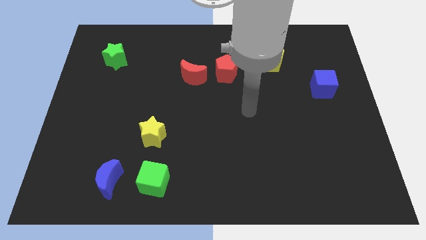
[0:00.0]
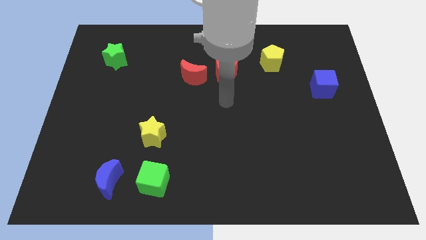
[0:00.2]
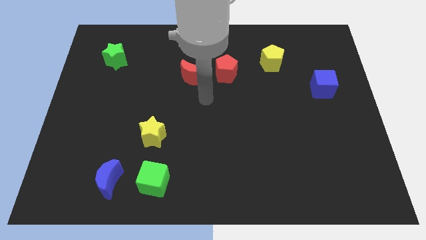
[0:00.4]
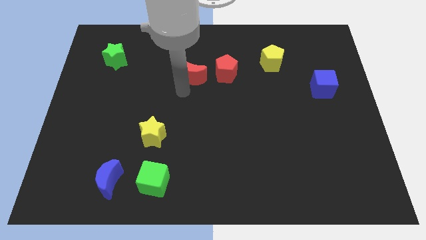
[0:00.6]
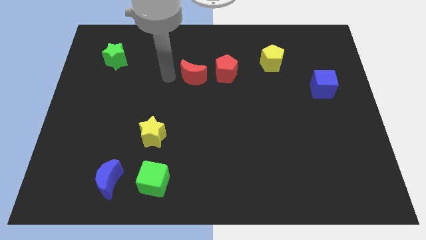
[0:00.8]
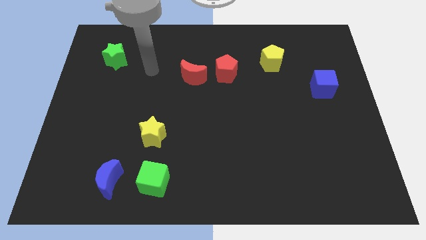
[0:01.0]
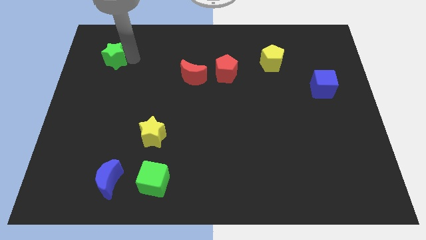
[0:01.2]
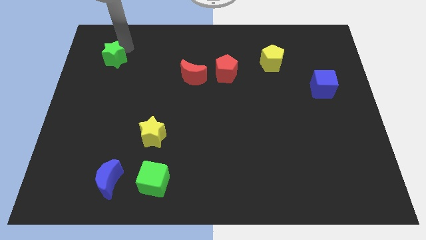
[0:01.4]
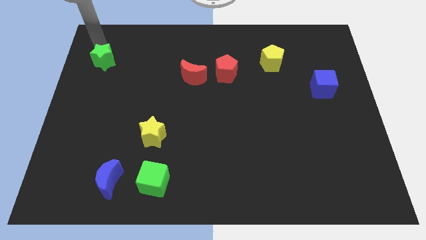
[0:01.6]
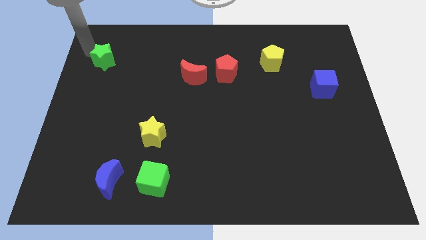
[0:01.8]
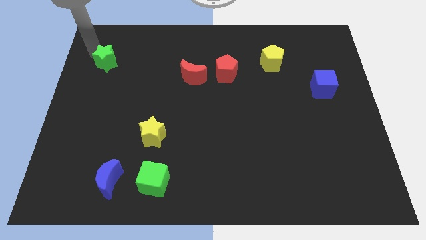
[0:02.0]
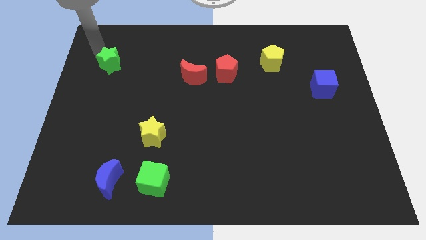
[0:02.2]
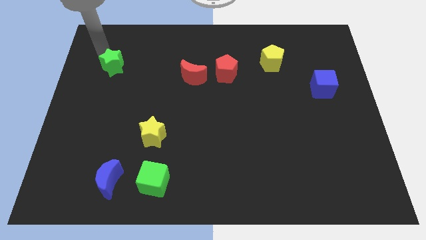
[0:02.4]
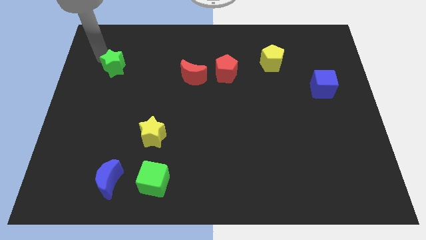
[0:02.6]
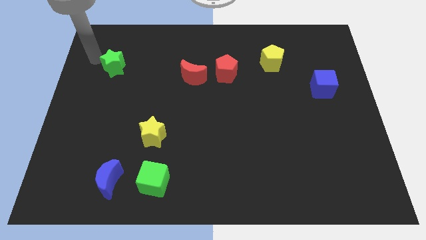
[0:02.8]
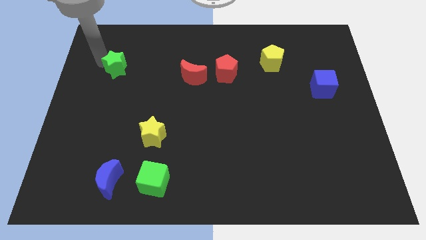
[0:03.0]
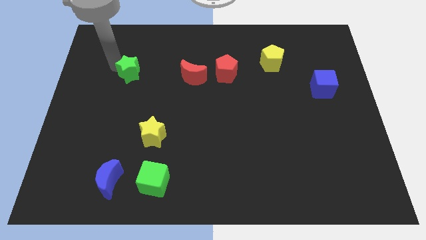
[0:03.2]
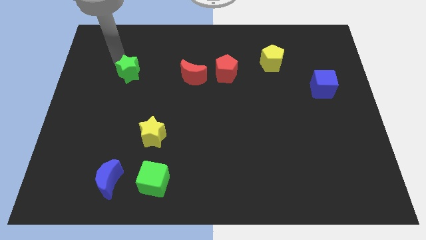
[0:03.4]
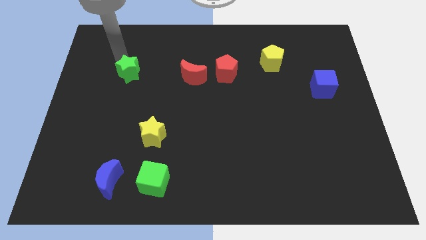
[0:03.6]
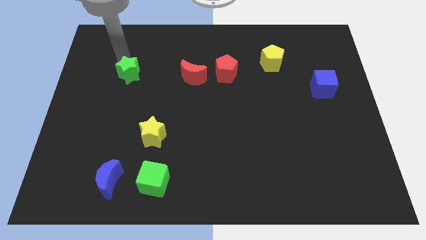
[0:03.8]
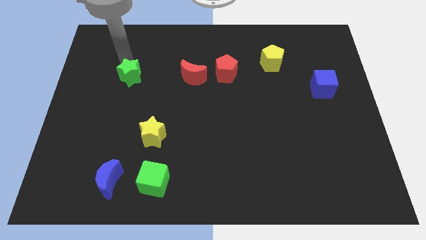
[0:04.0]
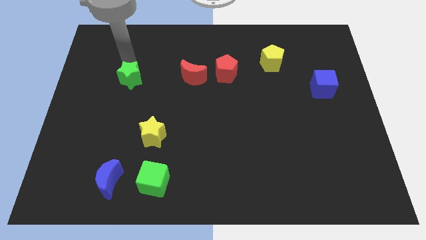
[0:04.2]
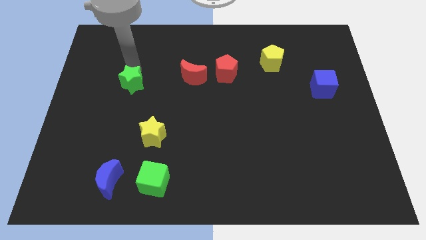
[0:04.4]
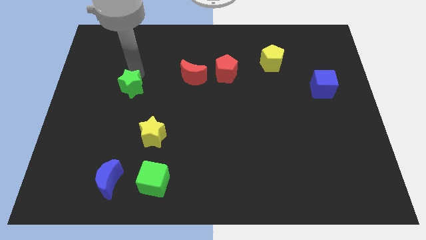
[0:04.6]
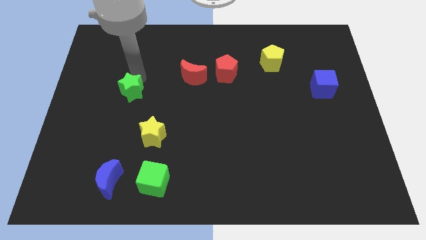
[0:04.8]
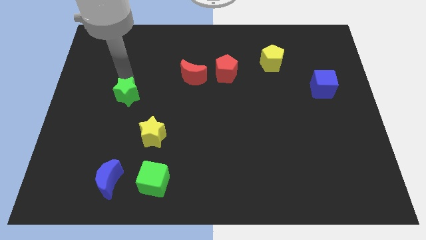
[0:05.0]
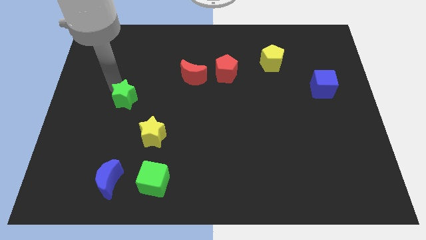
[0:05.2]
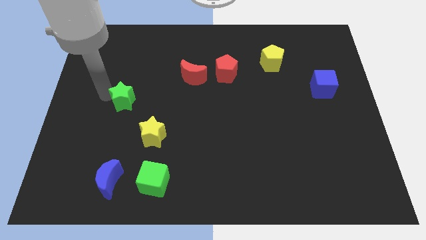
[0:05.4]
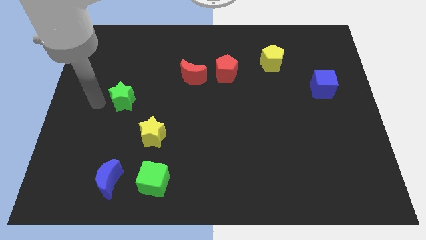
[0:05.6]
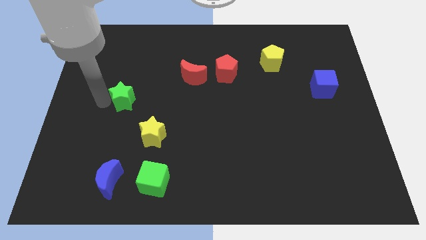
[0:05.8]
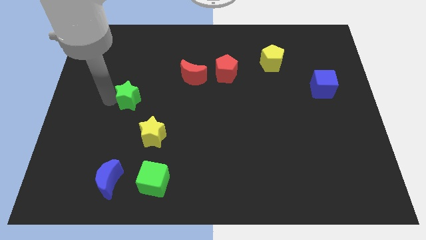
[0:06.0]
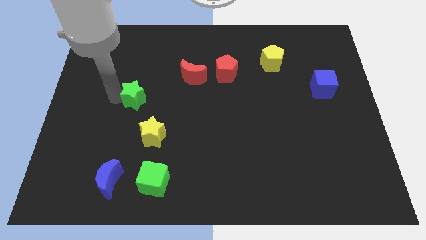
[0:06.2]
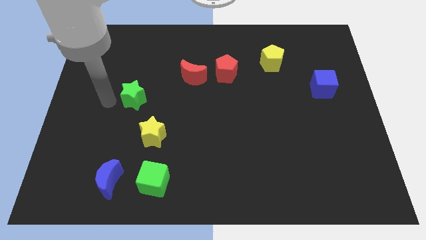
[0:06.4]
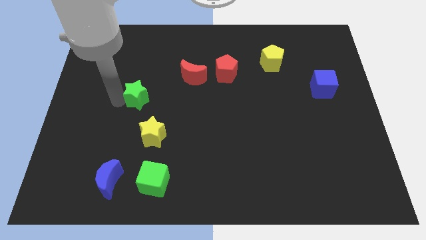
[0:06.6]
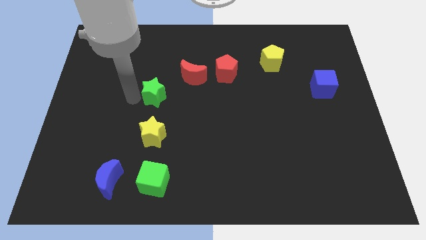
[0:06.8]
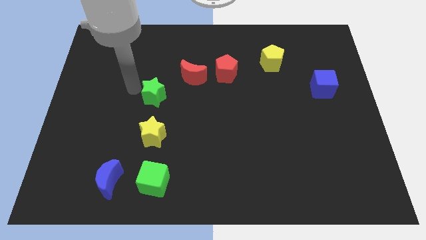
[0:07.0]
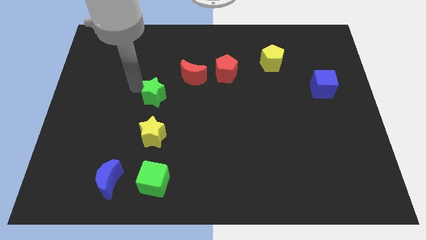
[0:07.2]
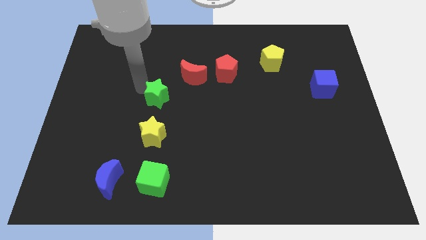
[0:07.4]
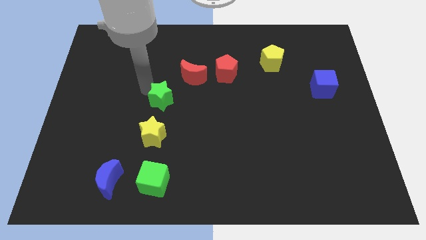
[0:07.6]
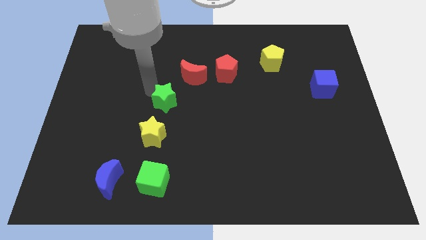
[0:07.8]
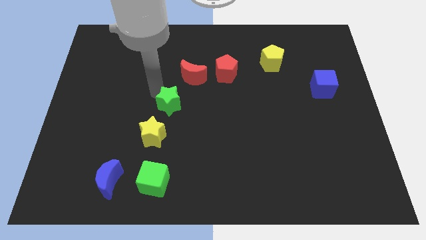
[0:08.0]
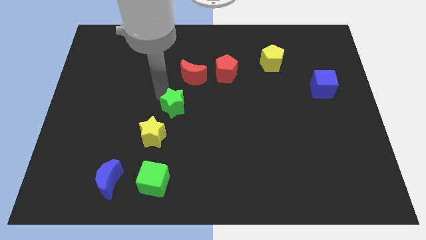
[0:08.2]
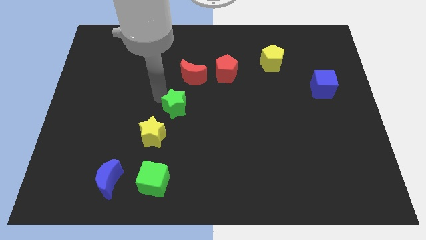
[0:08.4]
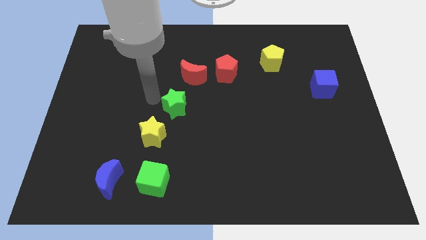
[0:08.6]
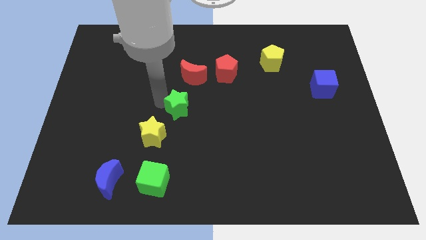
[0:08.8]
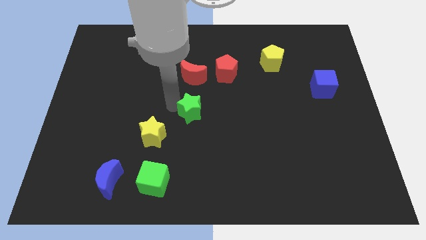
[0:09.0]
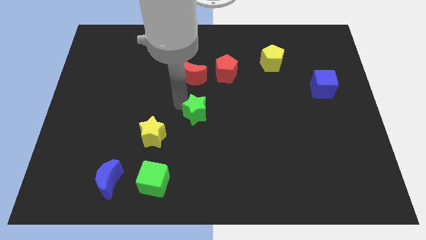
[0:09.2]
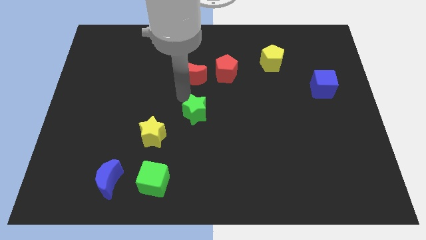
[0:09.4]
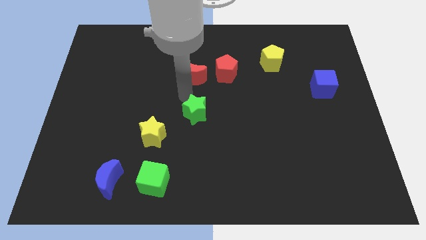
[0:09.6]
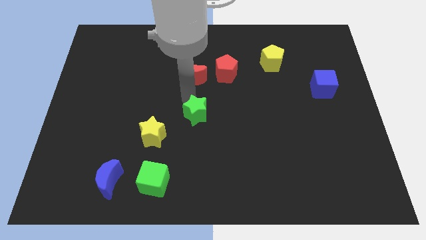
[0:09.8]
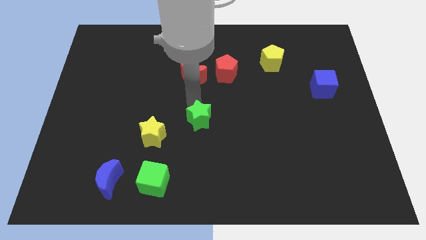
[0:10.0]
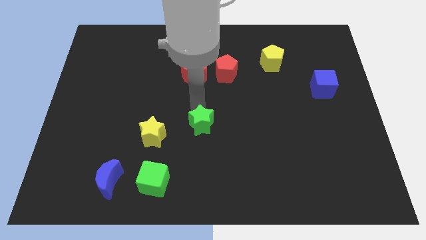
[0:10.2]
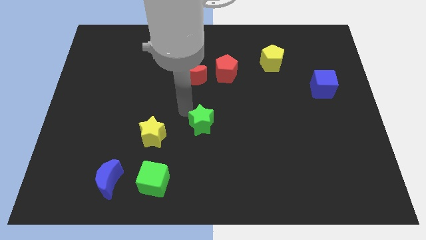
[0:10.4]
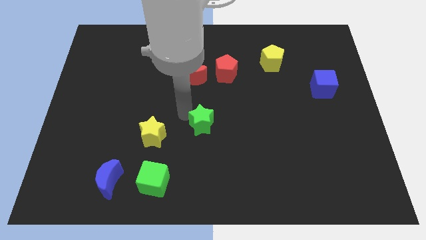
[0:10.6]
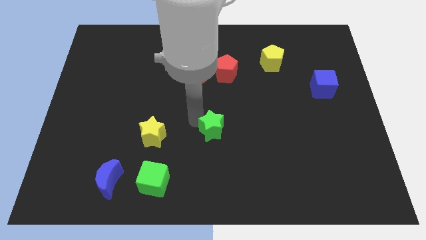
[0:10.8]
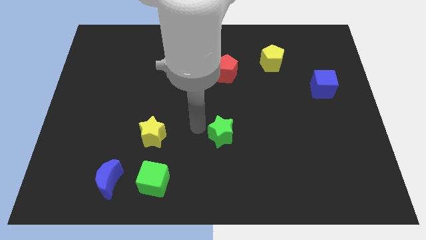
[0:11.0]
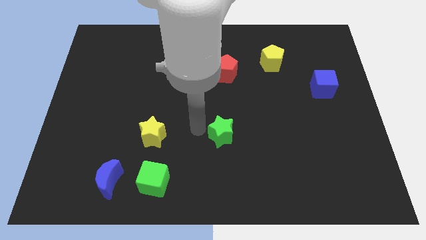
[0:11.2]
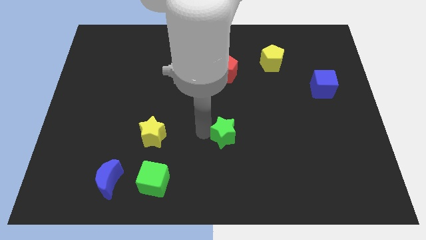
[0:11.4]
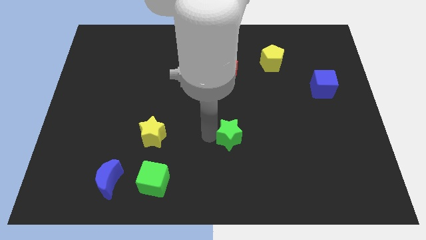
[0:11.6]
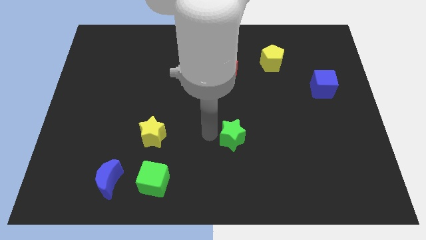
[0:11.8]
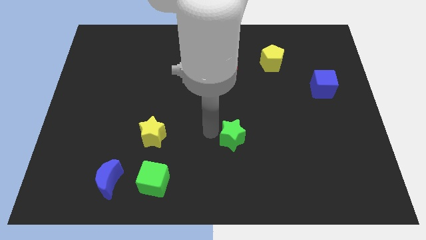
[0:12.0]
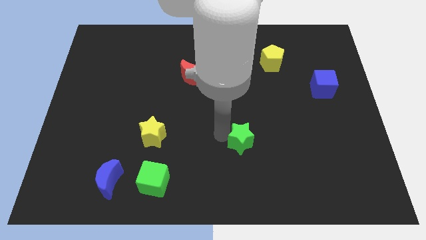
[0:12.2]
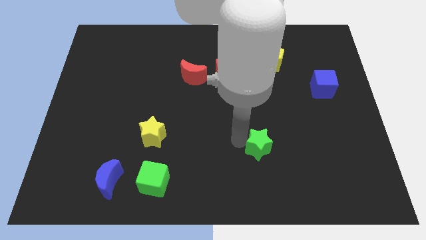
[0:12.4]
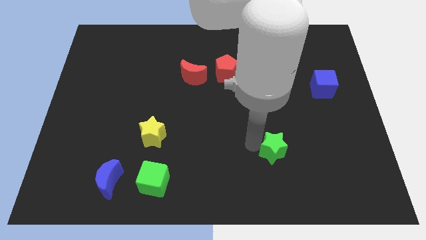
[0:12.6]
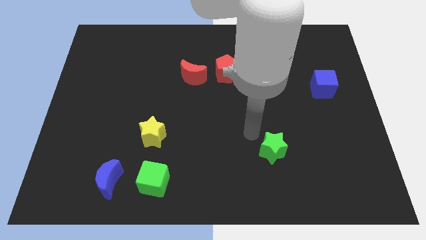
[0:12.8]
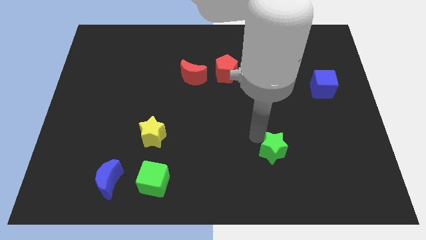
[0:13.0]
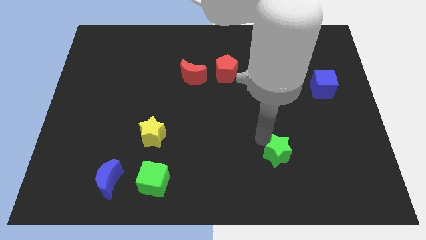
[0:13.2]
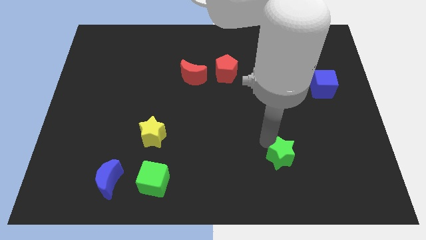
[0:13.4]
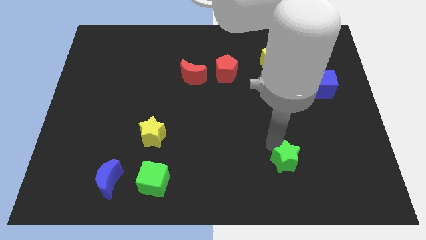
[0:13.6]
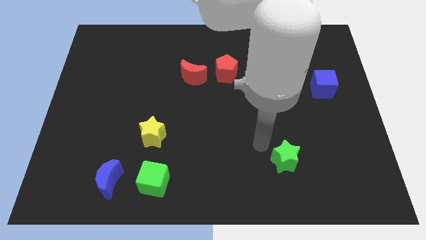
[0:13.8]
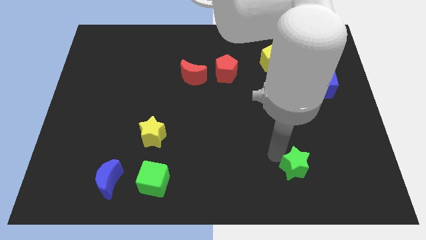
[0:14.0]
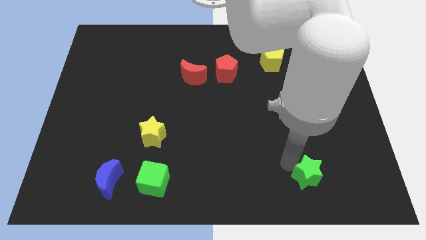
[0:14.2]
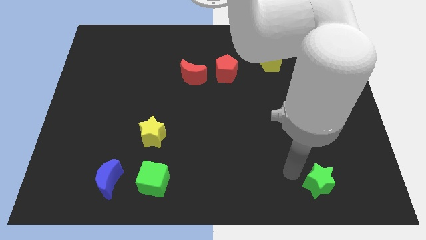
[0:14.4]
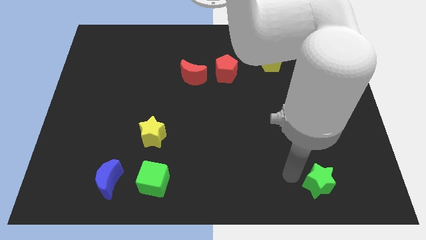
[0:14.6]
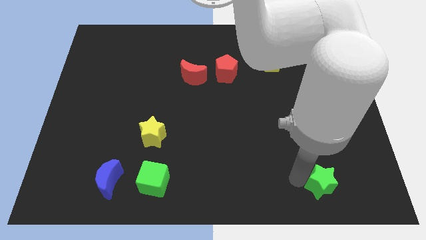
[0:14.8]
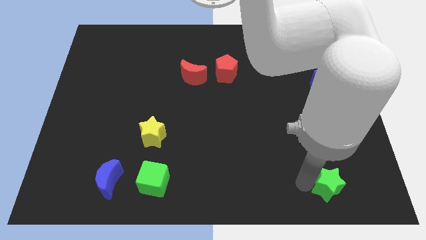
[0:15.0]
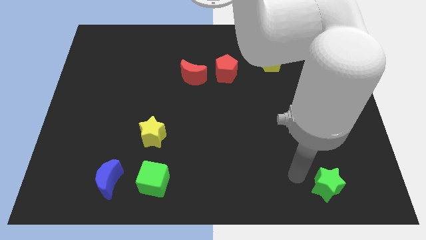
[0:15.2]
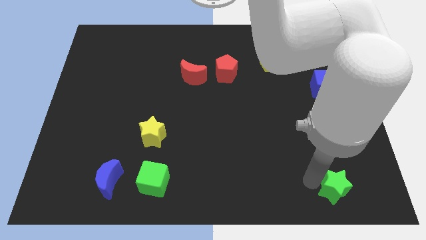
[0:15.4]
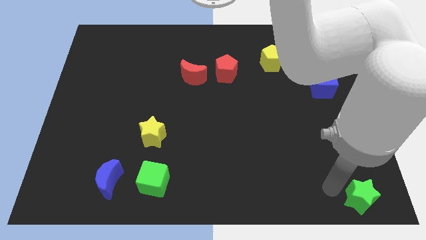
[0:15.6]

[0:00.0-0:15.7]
push the green star to the bottom right
